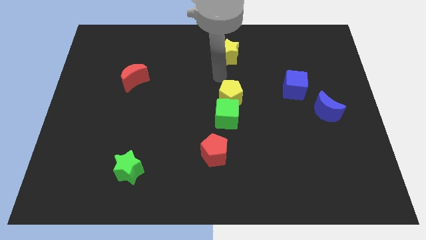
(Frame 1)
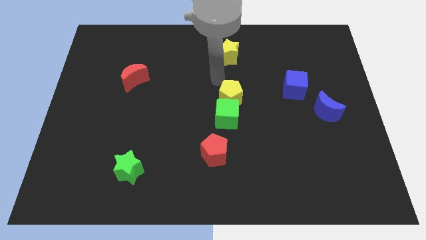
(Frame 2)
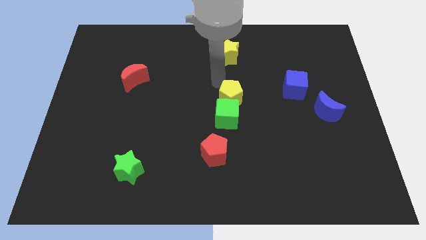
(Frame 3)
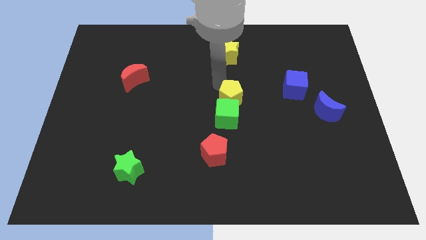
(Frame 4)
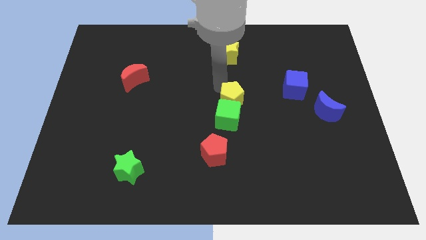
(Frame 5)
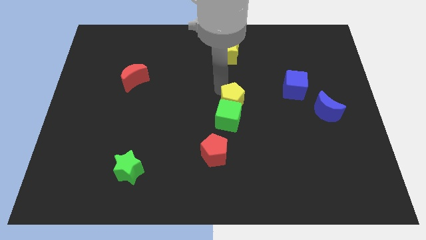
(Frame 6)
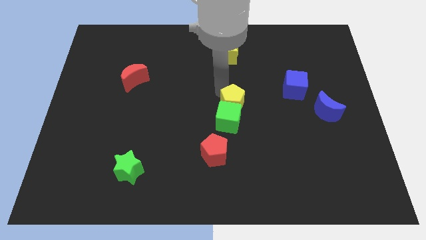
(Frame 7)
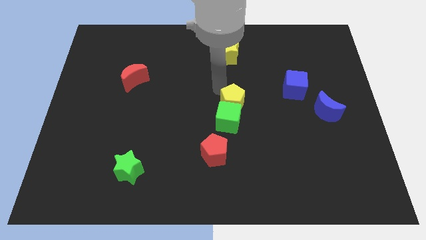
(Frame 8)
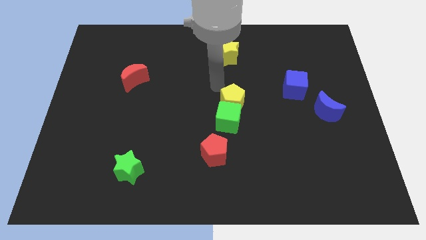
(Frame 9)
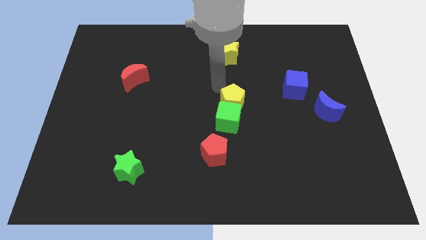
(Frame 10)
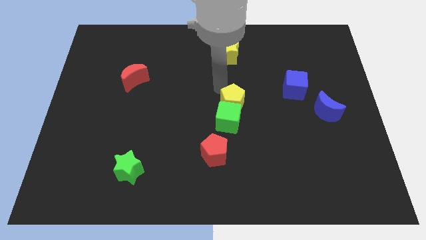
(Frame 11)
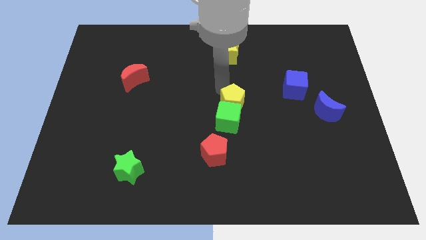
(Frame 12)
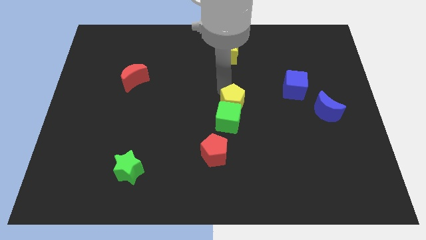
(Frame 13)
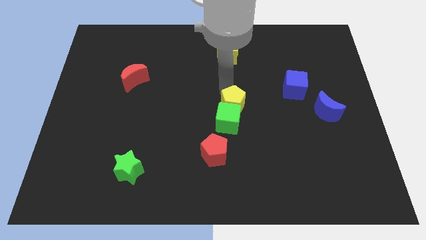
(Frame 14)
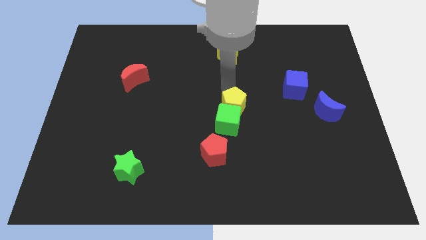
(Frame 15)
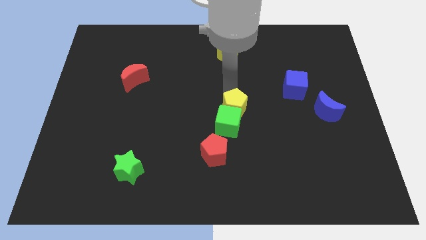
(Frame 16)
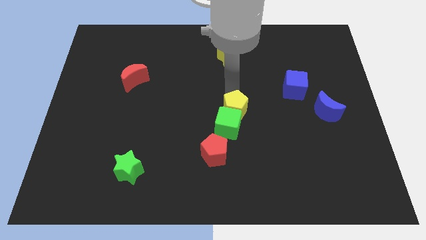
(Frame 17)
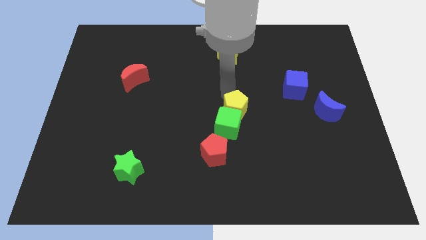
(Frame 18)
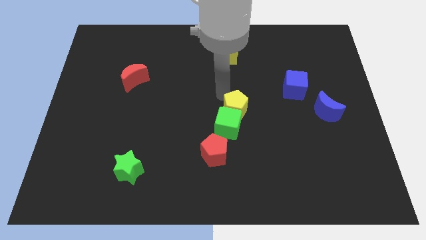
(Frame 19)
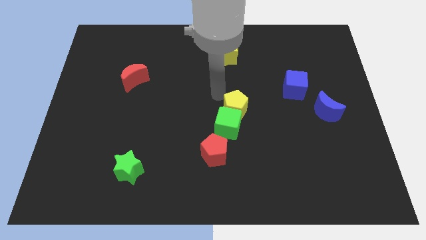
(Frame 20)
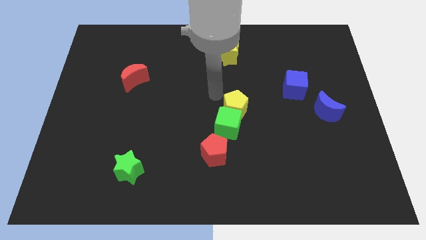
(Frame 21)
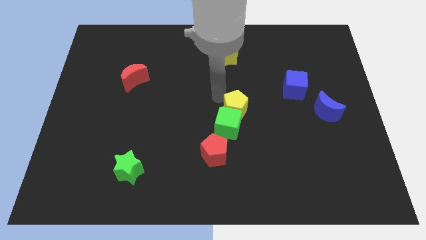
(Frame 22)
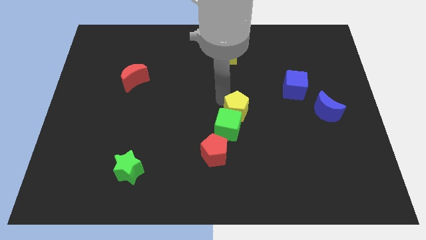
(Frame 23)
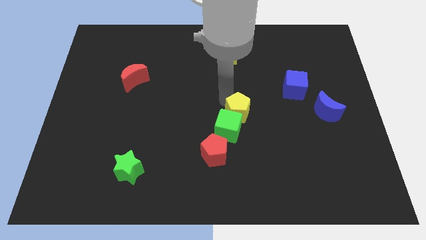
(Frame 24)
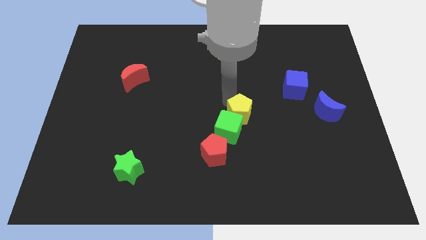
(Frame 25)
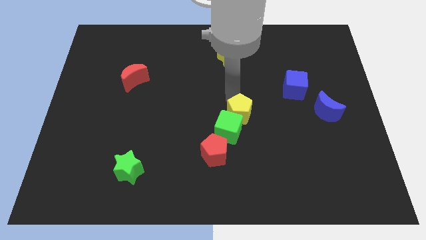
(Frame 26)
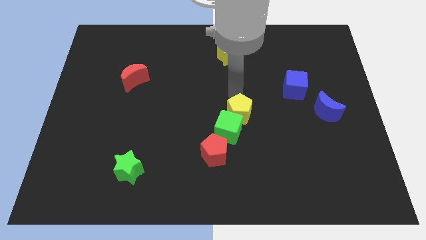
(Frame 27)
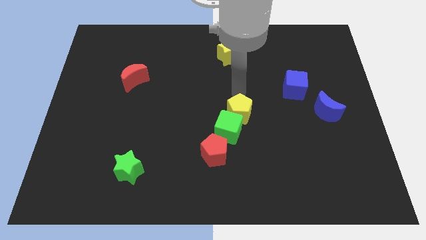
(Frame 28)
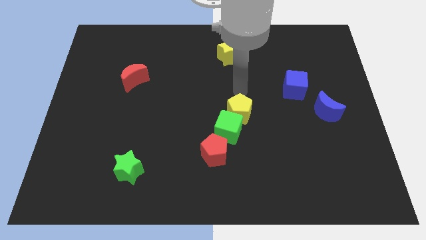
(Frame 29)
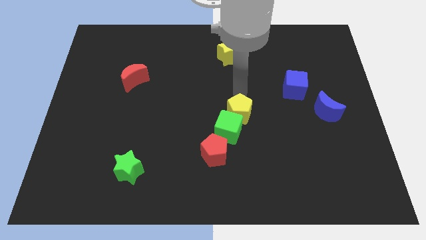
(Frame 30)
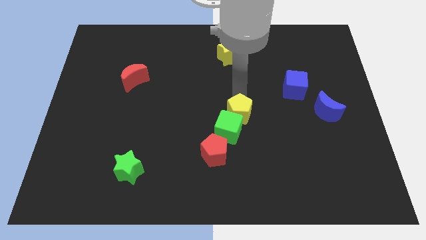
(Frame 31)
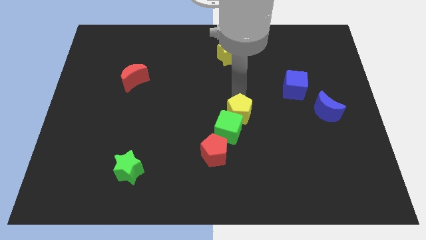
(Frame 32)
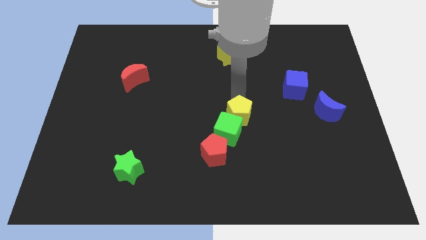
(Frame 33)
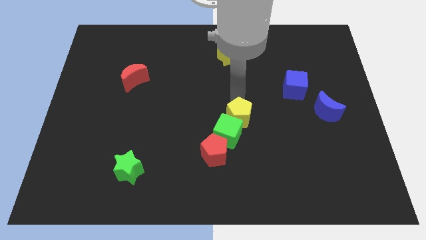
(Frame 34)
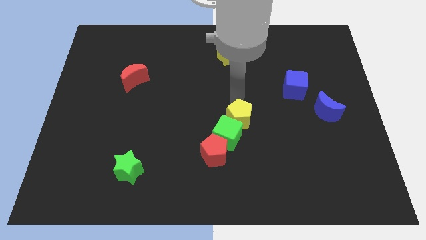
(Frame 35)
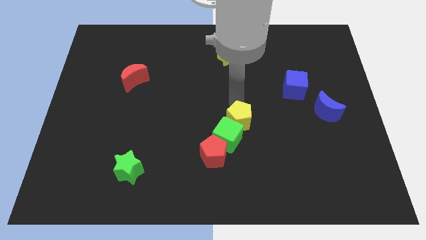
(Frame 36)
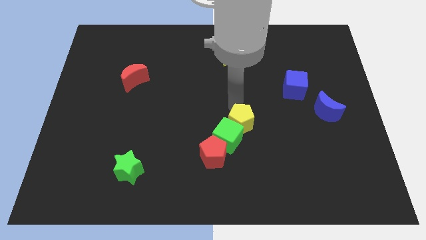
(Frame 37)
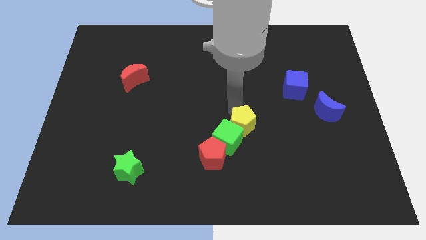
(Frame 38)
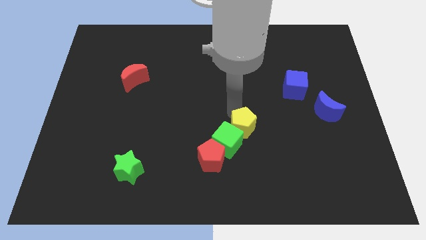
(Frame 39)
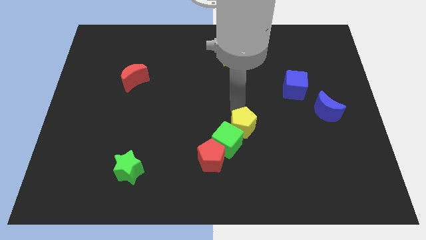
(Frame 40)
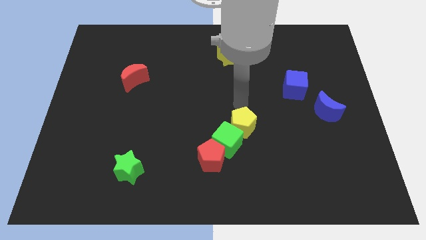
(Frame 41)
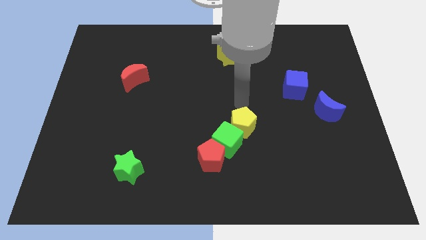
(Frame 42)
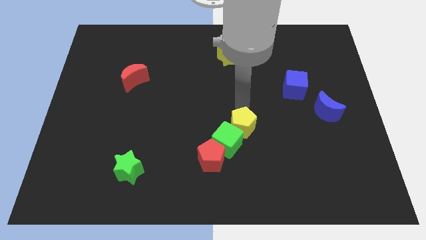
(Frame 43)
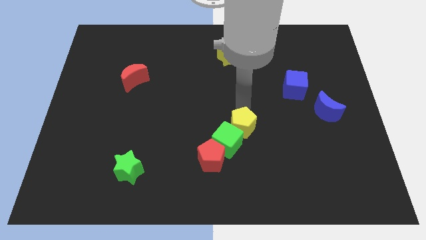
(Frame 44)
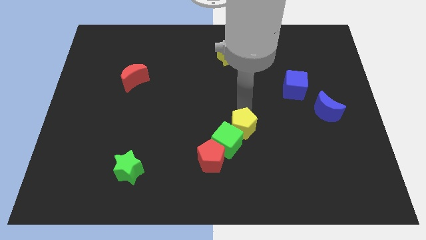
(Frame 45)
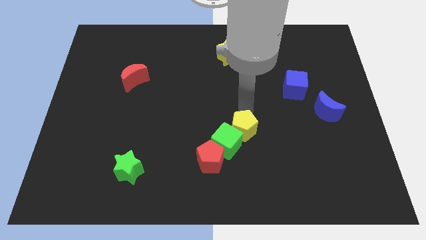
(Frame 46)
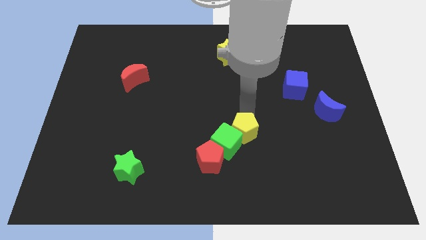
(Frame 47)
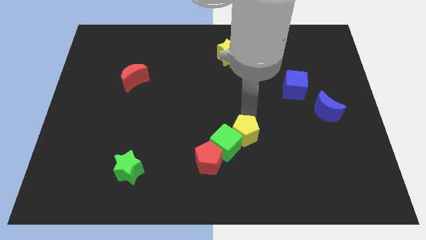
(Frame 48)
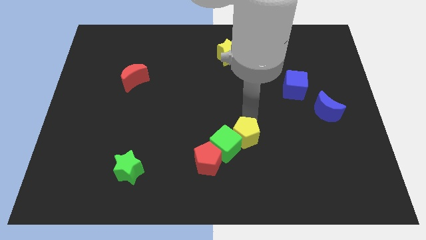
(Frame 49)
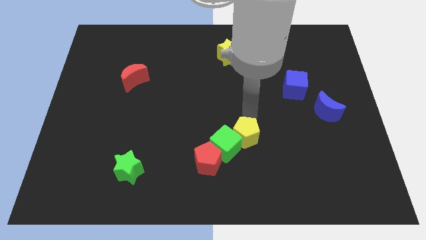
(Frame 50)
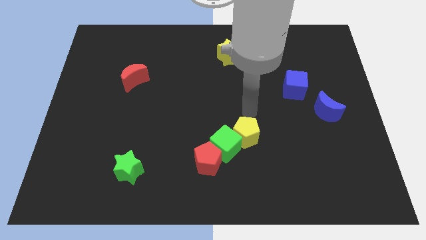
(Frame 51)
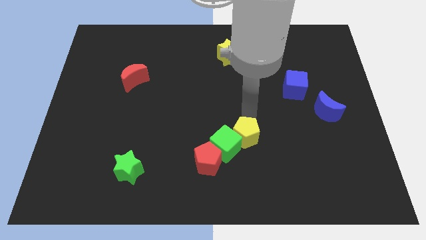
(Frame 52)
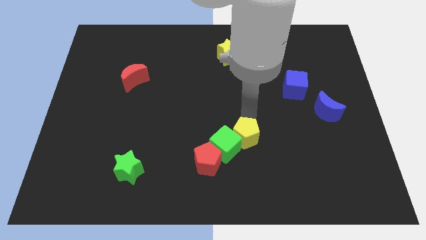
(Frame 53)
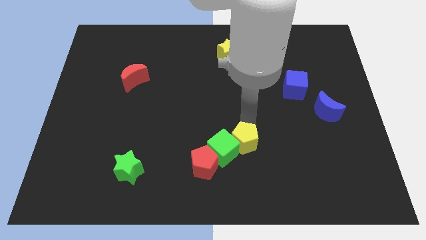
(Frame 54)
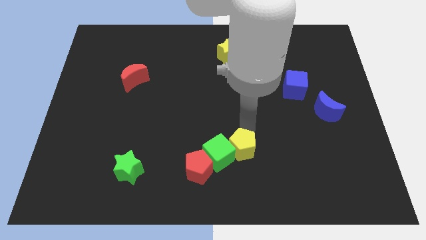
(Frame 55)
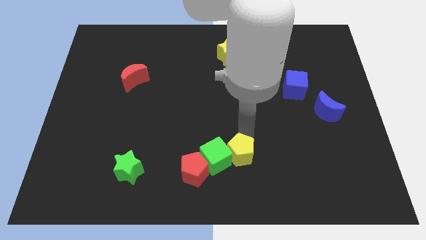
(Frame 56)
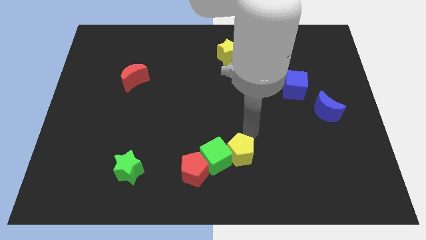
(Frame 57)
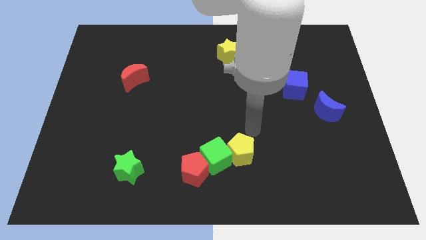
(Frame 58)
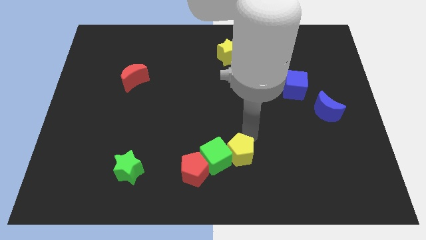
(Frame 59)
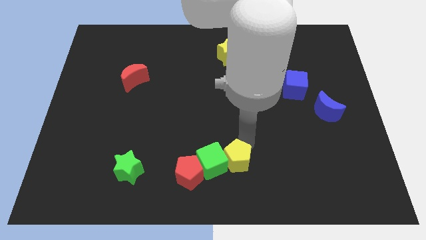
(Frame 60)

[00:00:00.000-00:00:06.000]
put the yellow pentagon to the bottom

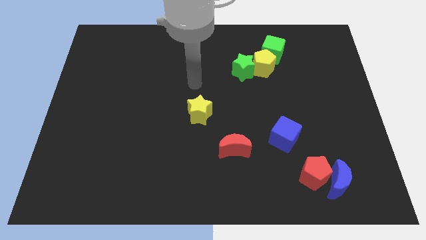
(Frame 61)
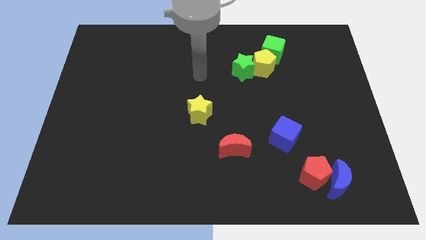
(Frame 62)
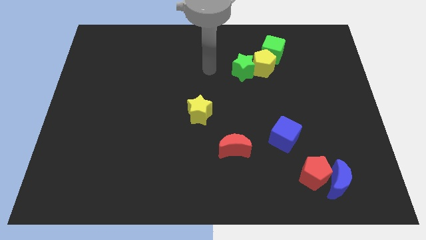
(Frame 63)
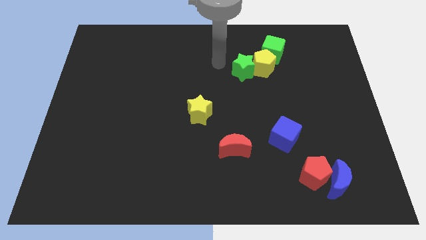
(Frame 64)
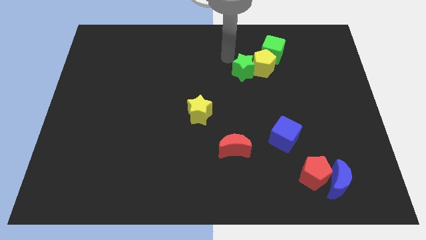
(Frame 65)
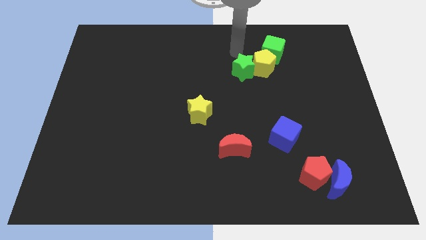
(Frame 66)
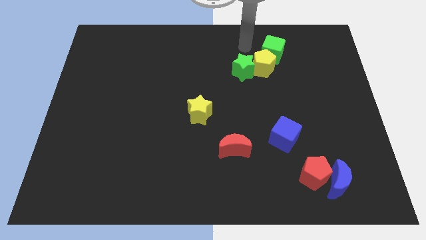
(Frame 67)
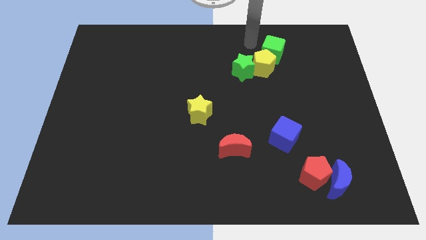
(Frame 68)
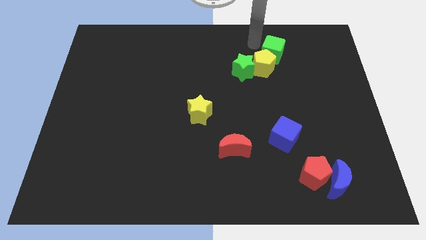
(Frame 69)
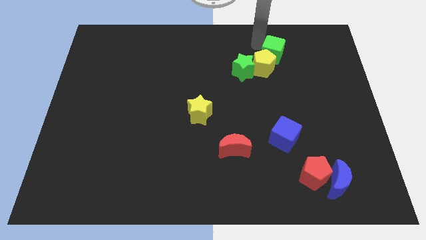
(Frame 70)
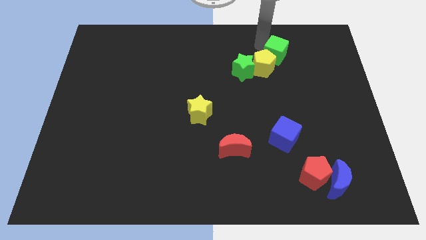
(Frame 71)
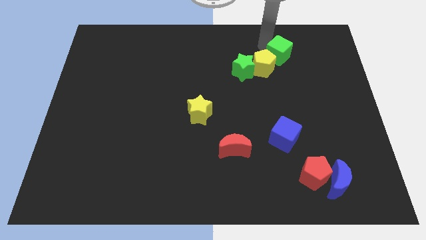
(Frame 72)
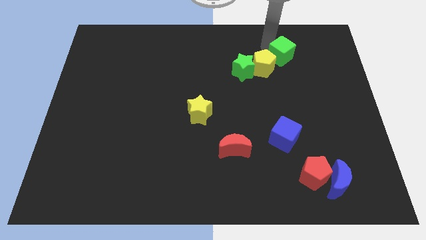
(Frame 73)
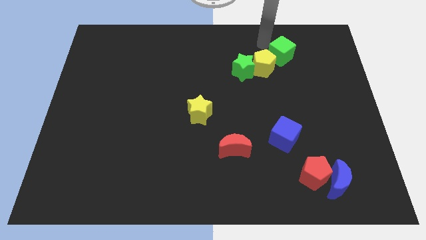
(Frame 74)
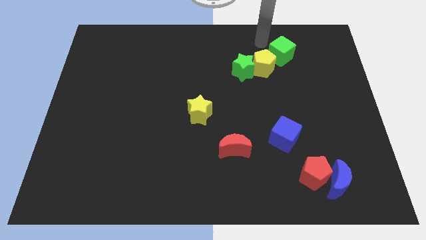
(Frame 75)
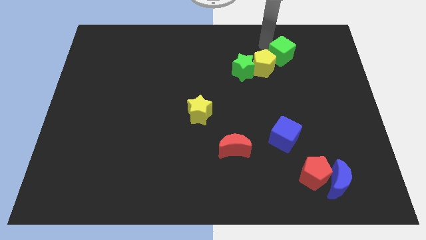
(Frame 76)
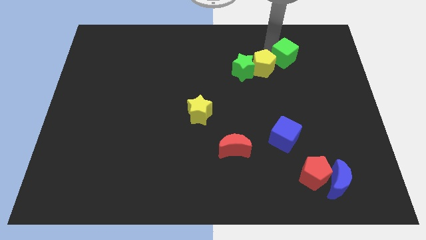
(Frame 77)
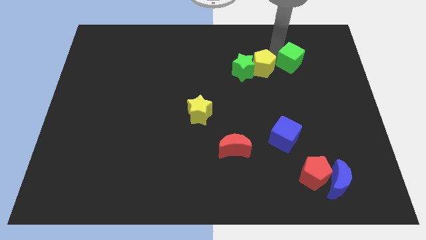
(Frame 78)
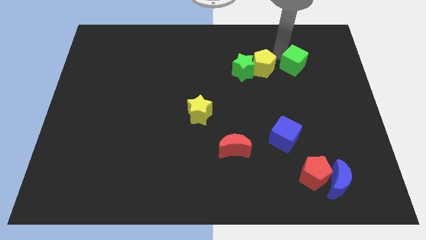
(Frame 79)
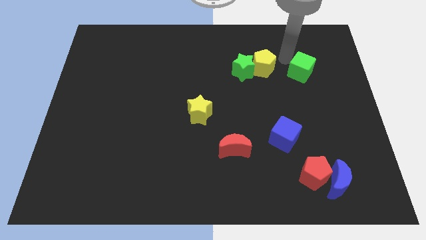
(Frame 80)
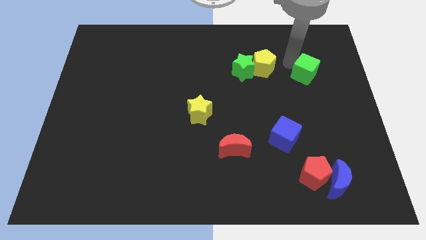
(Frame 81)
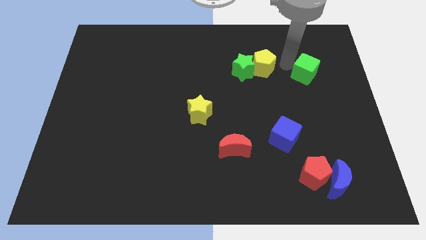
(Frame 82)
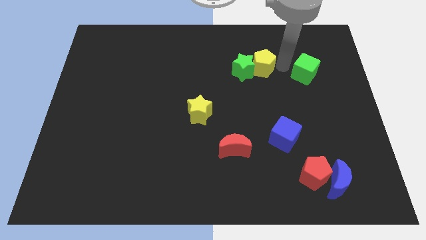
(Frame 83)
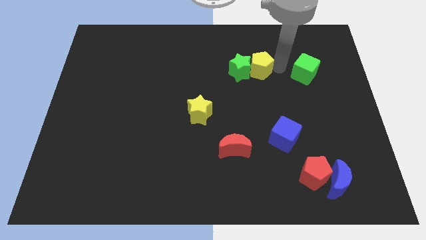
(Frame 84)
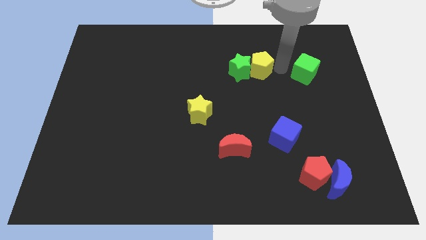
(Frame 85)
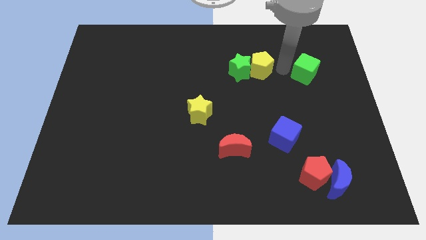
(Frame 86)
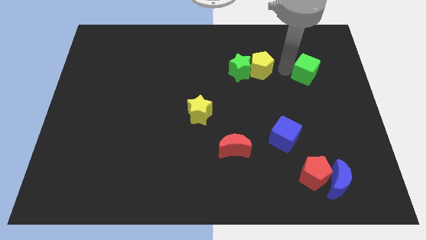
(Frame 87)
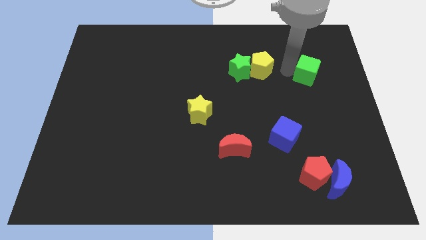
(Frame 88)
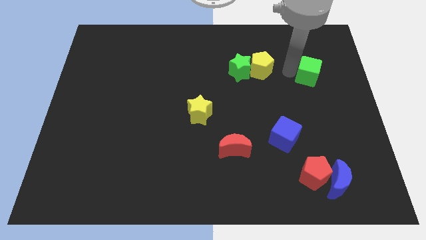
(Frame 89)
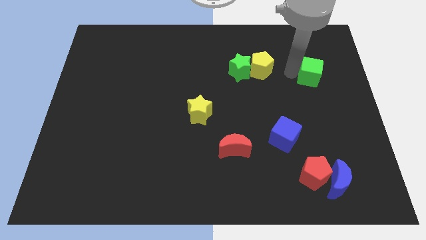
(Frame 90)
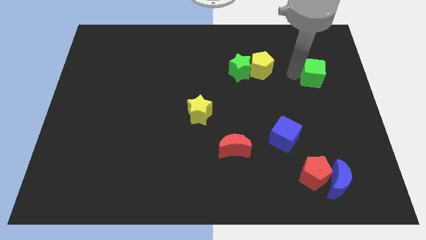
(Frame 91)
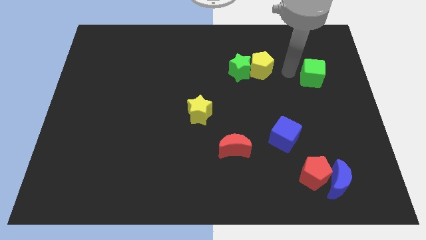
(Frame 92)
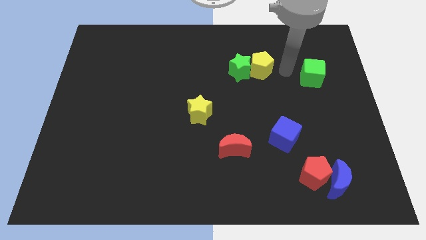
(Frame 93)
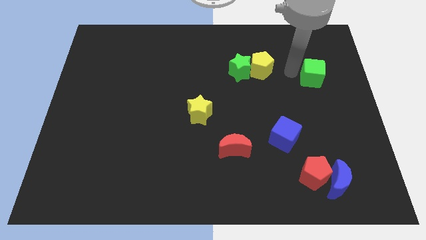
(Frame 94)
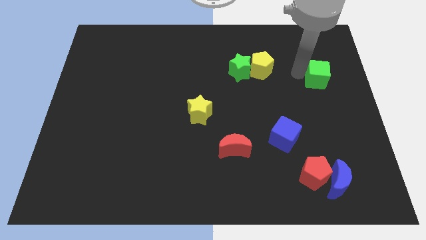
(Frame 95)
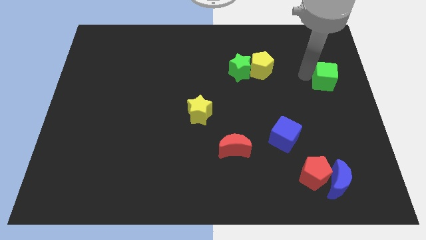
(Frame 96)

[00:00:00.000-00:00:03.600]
slide the green cube to the center right
